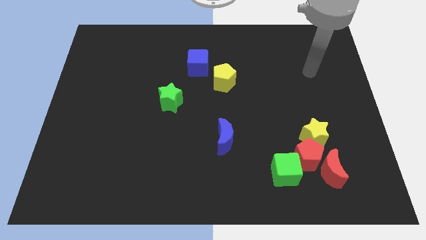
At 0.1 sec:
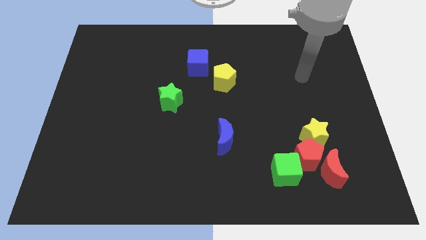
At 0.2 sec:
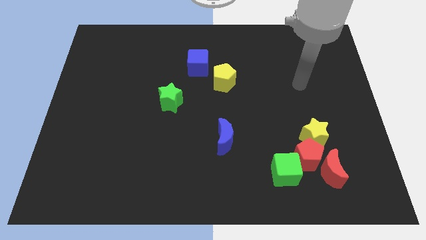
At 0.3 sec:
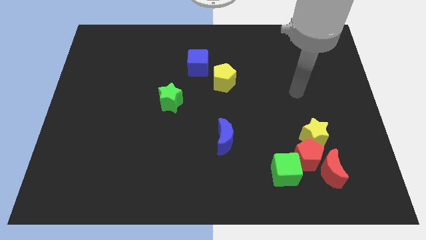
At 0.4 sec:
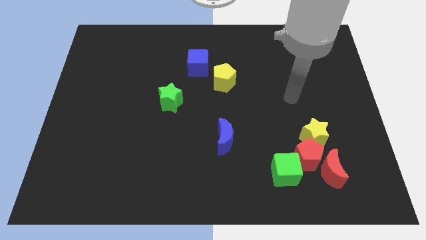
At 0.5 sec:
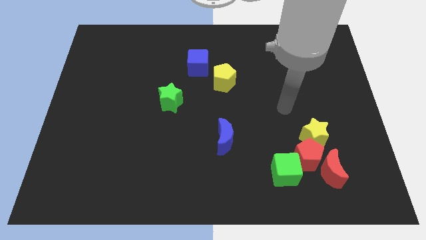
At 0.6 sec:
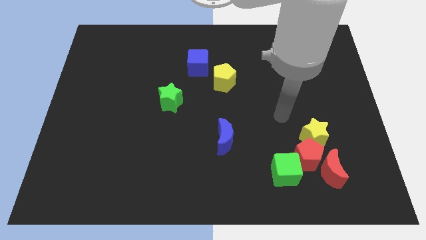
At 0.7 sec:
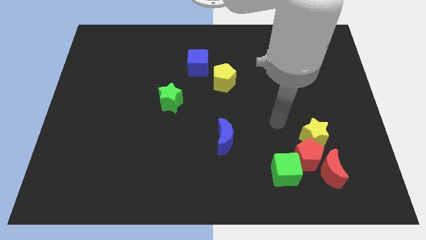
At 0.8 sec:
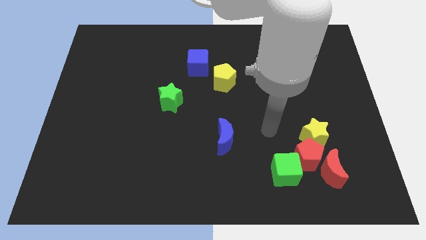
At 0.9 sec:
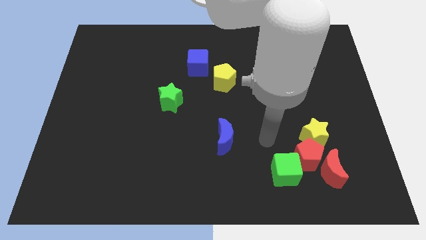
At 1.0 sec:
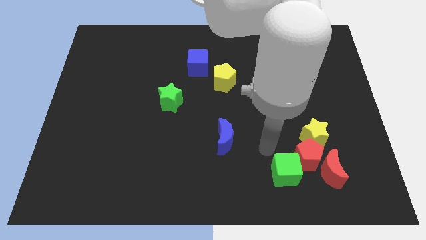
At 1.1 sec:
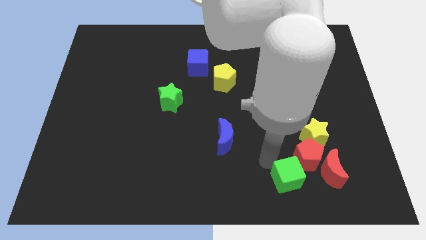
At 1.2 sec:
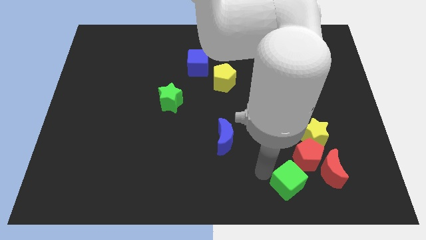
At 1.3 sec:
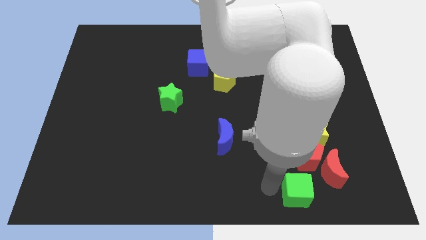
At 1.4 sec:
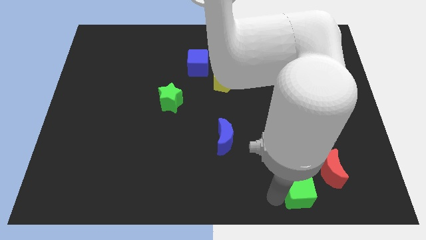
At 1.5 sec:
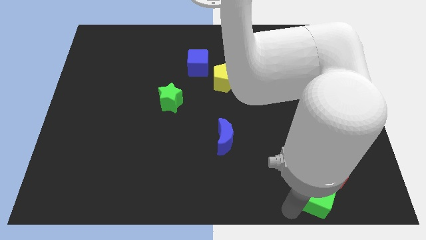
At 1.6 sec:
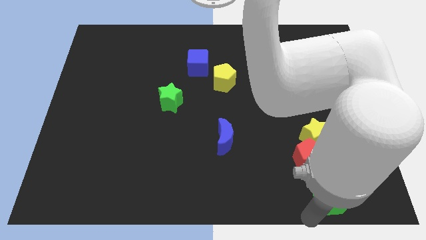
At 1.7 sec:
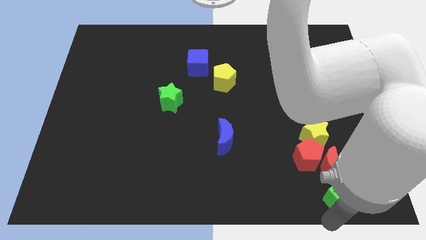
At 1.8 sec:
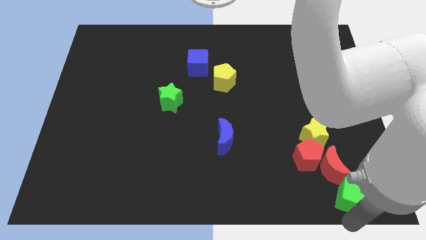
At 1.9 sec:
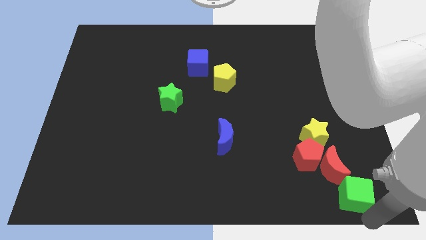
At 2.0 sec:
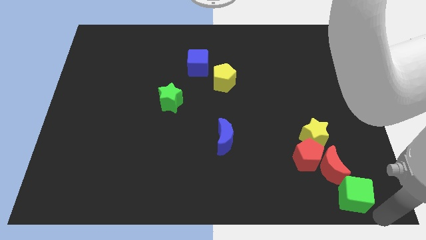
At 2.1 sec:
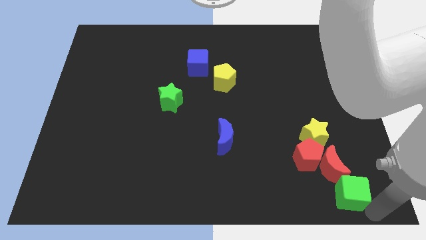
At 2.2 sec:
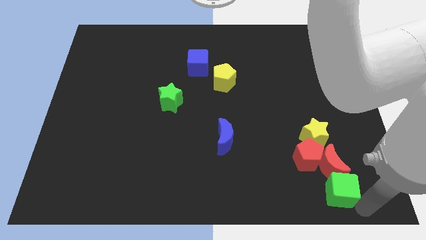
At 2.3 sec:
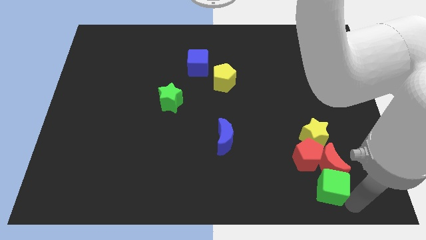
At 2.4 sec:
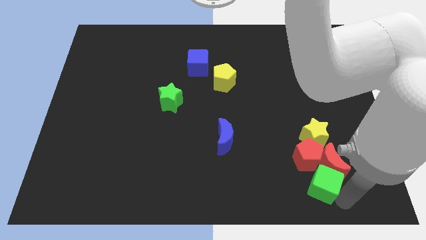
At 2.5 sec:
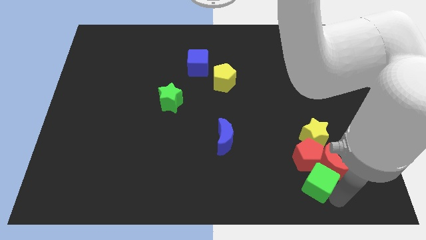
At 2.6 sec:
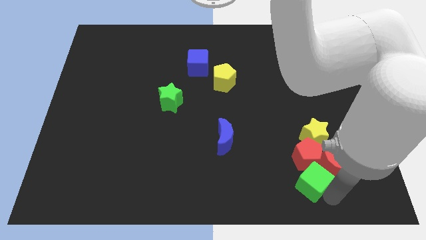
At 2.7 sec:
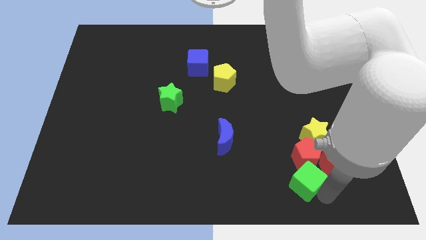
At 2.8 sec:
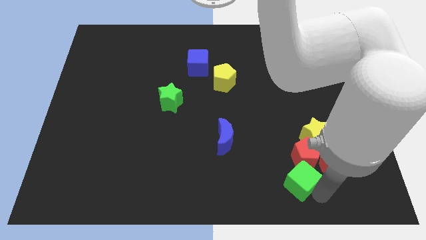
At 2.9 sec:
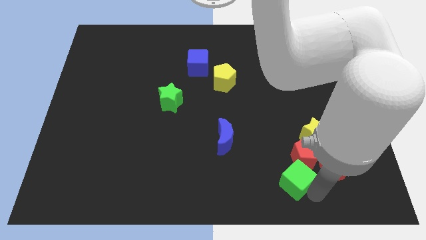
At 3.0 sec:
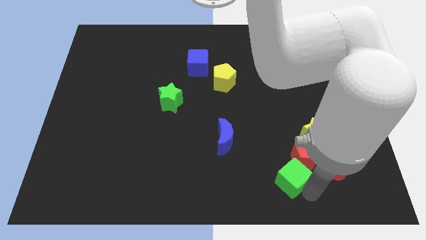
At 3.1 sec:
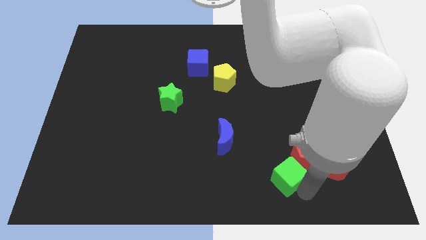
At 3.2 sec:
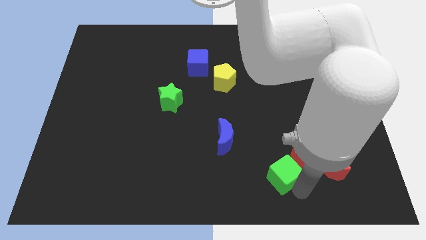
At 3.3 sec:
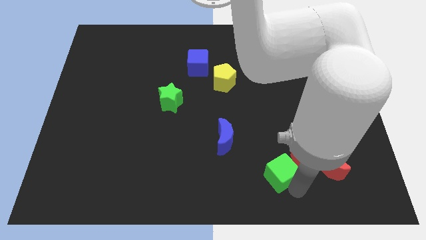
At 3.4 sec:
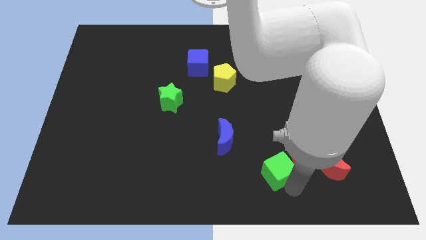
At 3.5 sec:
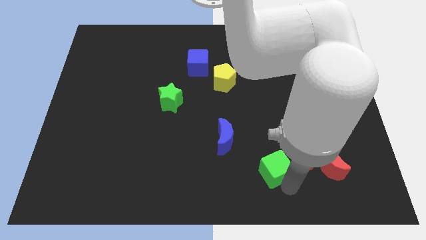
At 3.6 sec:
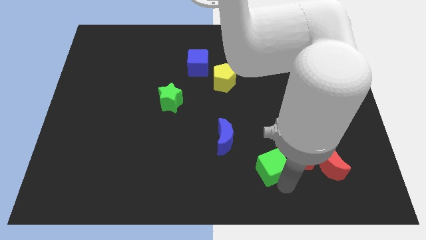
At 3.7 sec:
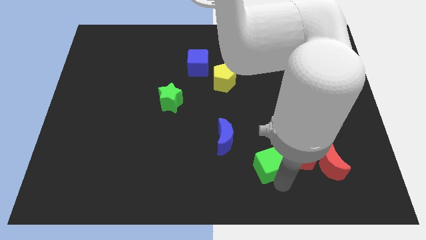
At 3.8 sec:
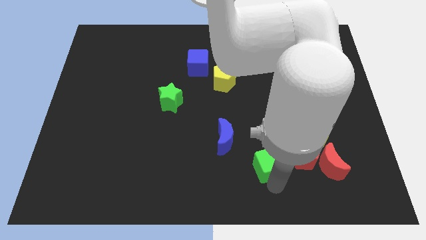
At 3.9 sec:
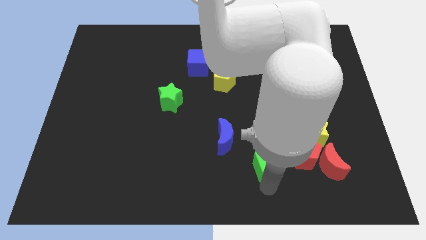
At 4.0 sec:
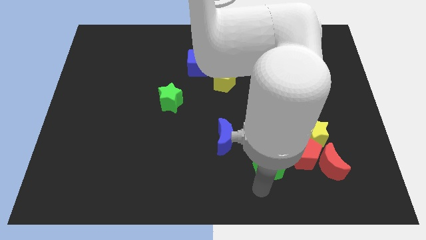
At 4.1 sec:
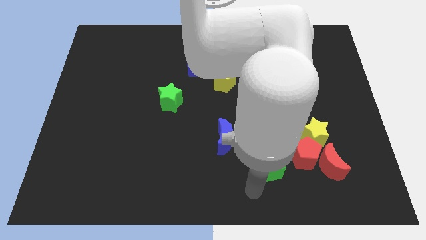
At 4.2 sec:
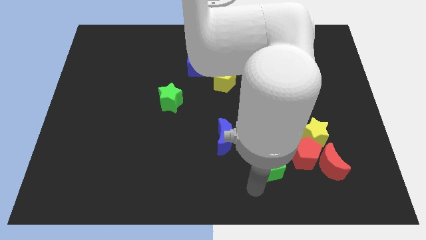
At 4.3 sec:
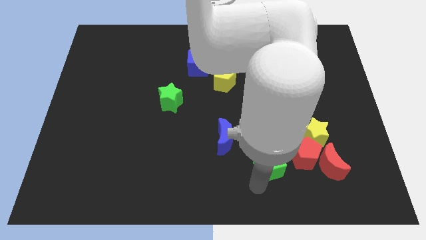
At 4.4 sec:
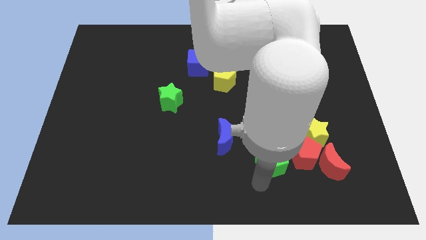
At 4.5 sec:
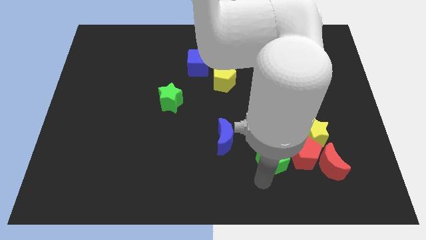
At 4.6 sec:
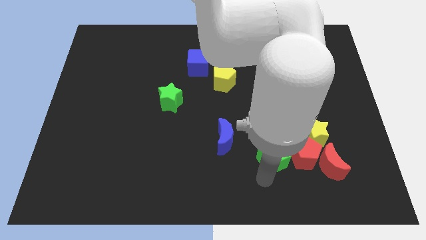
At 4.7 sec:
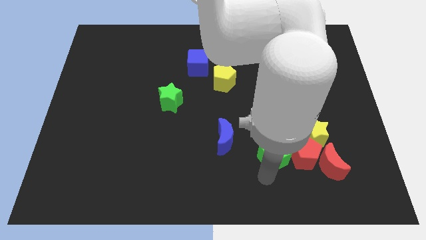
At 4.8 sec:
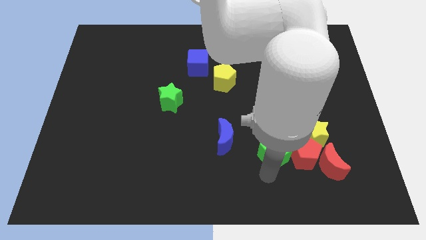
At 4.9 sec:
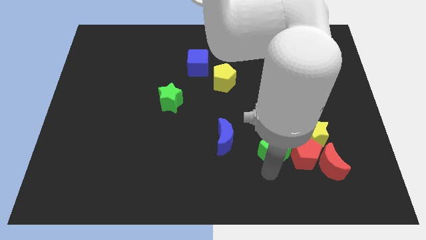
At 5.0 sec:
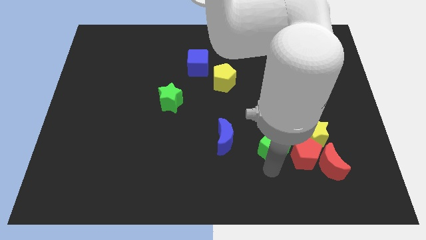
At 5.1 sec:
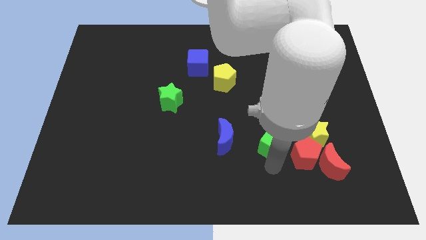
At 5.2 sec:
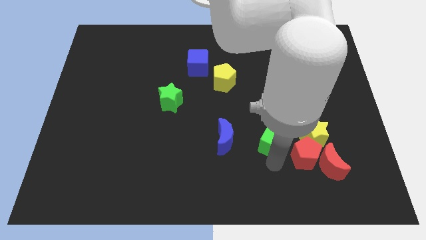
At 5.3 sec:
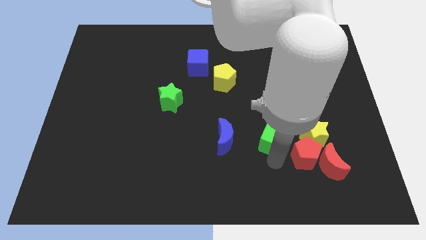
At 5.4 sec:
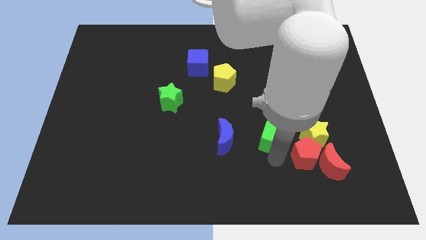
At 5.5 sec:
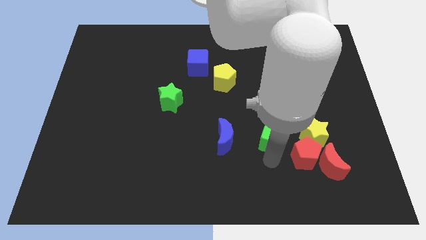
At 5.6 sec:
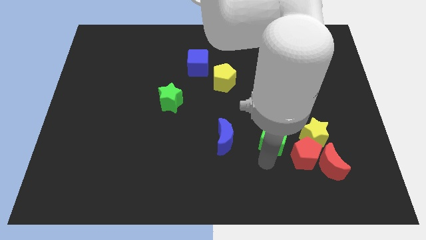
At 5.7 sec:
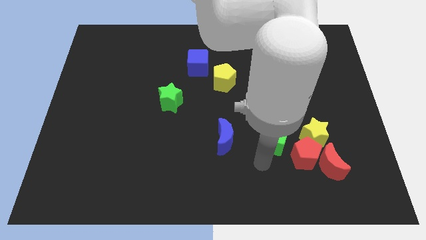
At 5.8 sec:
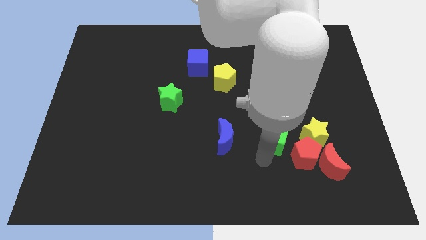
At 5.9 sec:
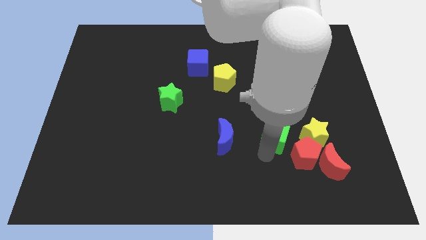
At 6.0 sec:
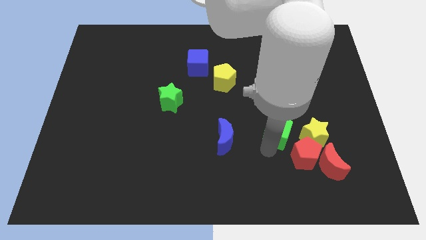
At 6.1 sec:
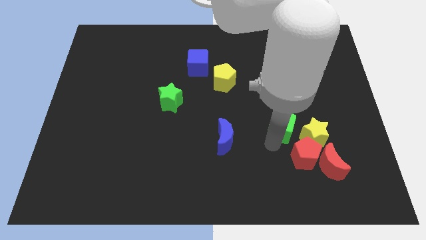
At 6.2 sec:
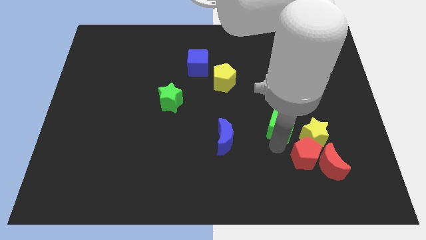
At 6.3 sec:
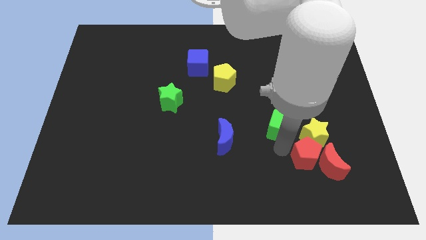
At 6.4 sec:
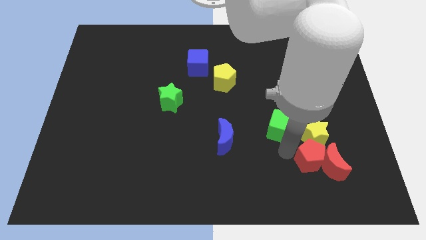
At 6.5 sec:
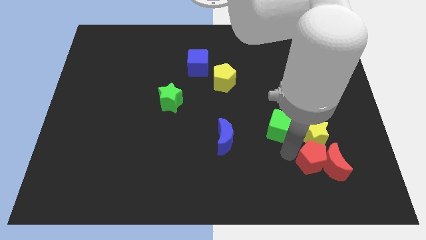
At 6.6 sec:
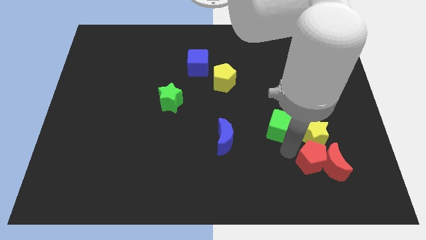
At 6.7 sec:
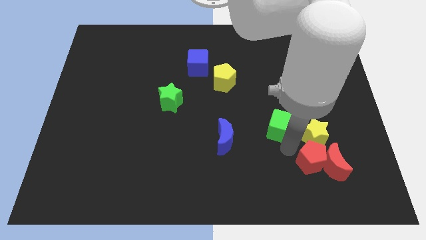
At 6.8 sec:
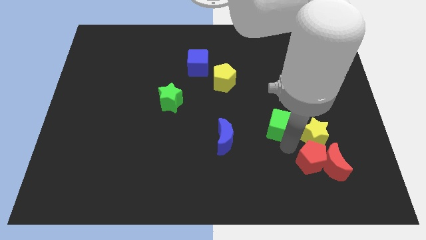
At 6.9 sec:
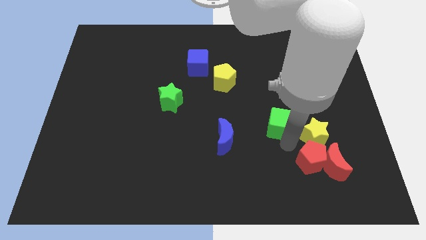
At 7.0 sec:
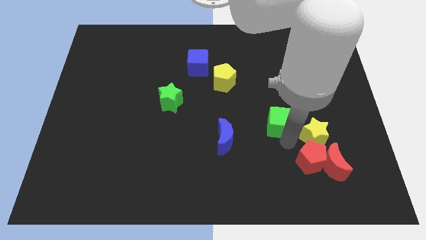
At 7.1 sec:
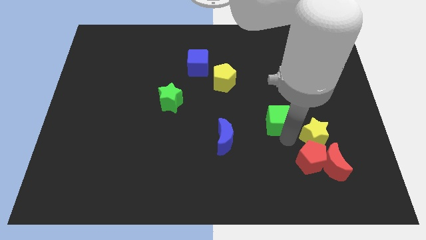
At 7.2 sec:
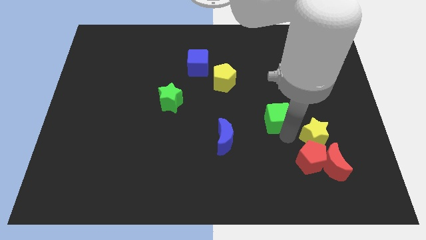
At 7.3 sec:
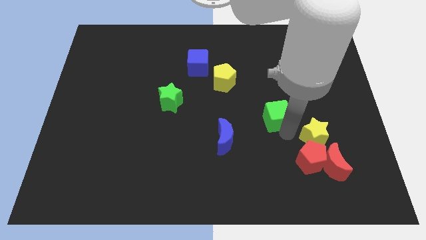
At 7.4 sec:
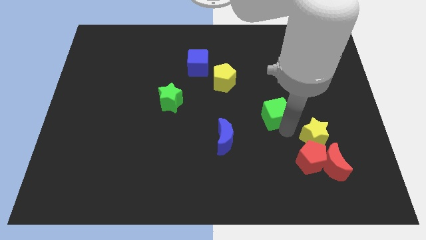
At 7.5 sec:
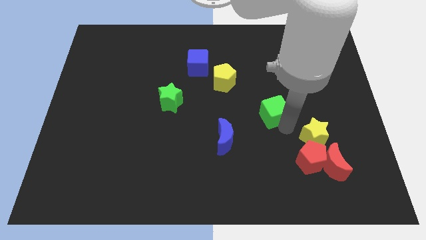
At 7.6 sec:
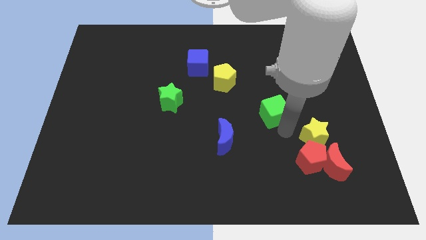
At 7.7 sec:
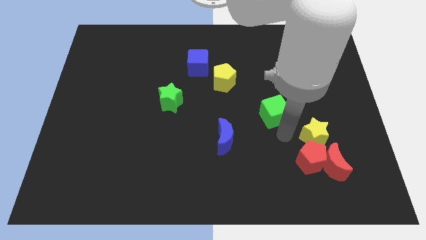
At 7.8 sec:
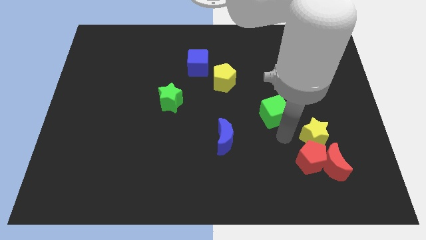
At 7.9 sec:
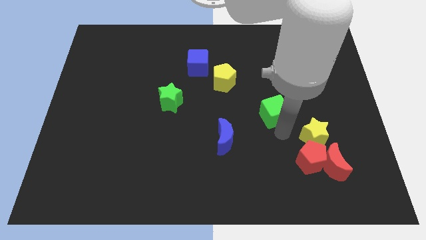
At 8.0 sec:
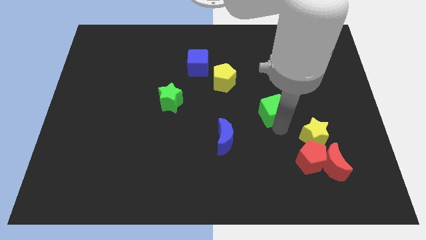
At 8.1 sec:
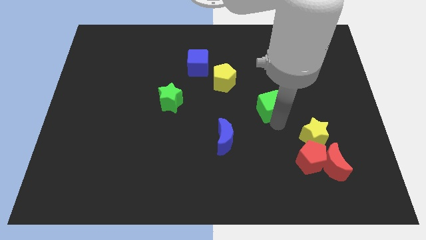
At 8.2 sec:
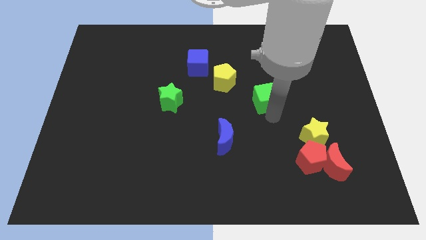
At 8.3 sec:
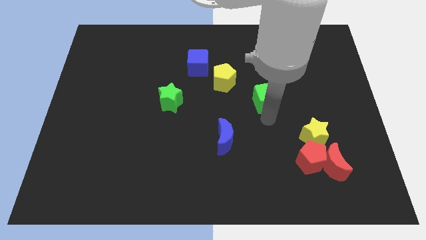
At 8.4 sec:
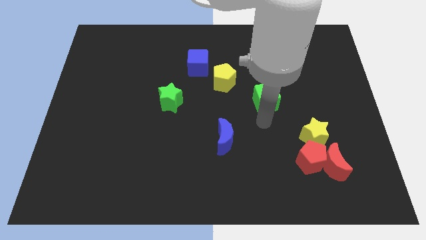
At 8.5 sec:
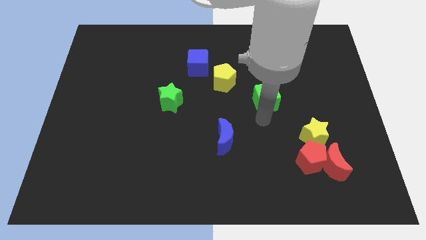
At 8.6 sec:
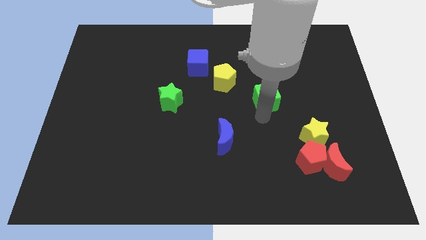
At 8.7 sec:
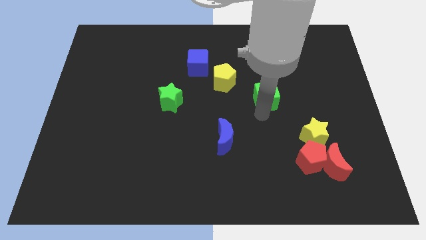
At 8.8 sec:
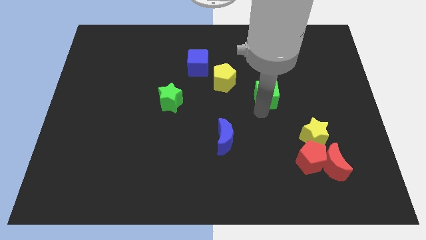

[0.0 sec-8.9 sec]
push the green cube up
